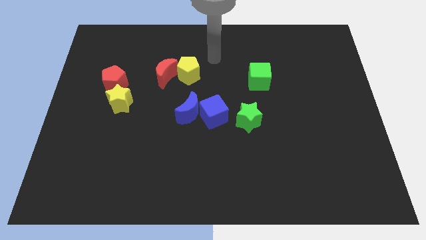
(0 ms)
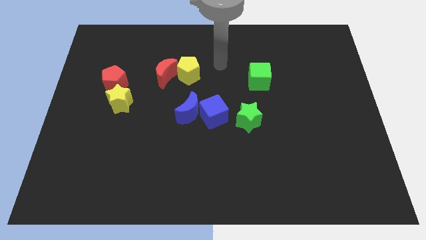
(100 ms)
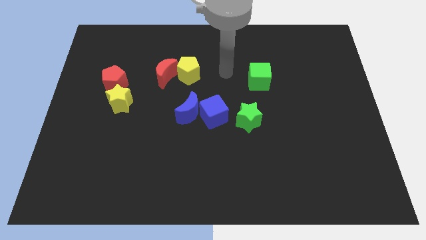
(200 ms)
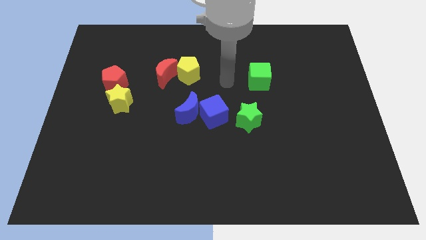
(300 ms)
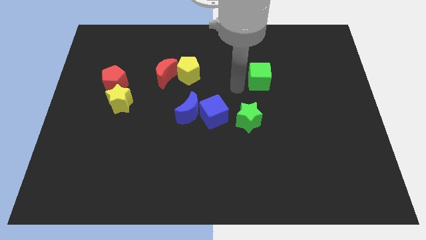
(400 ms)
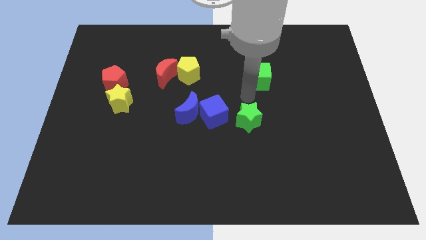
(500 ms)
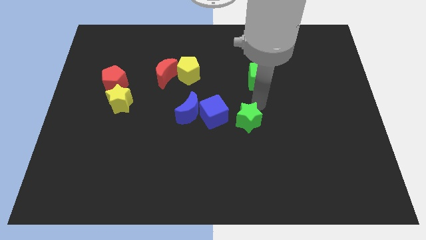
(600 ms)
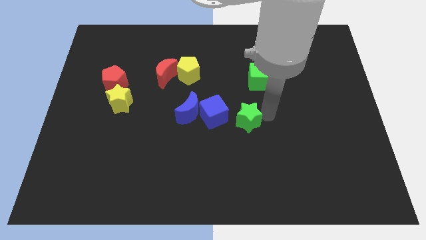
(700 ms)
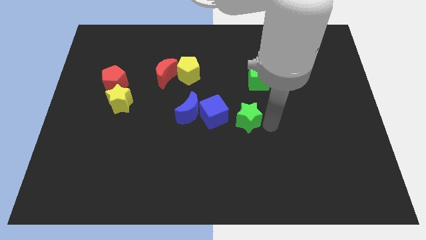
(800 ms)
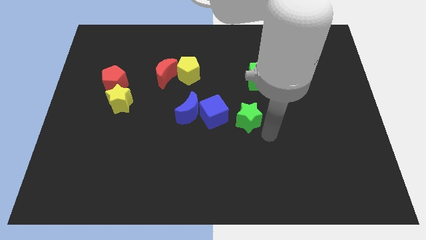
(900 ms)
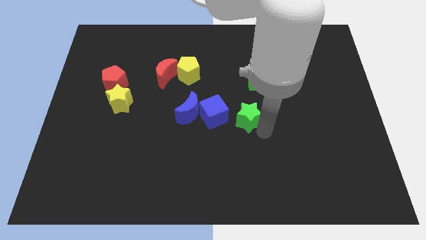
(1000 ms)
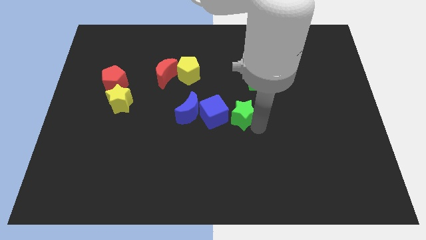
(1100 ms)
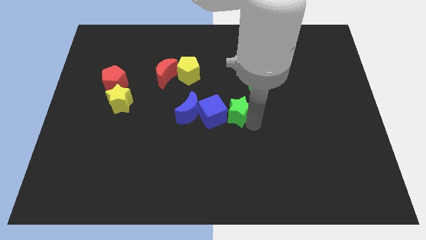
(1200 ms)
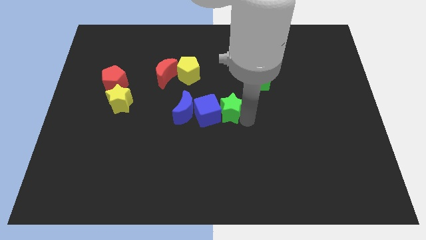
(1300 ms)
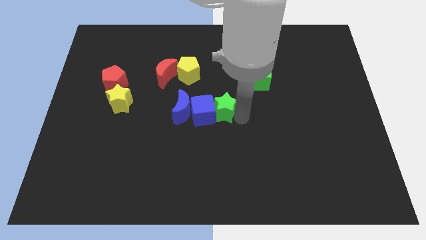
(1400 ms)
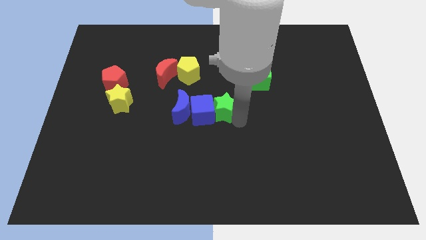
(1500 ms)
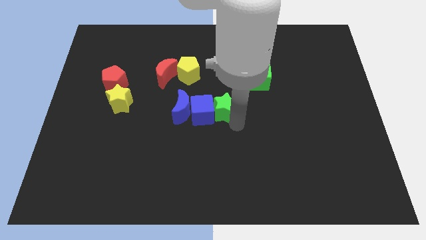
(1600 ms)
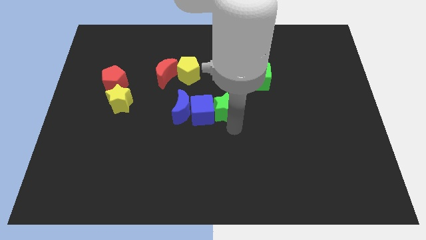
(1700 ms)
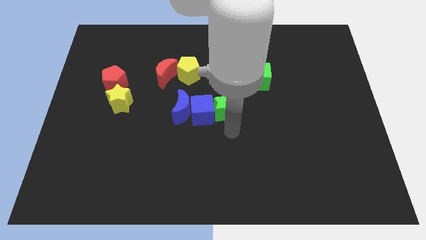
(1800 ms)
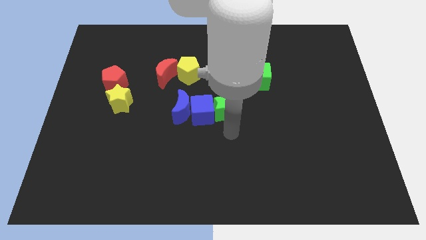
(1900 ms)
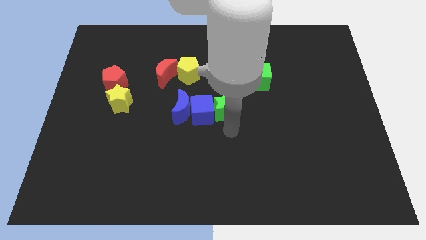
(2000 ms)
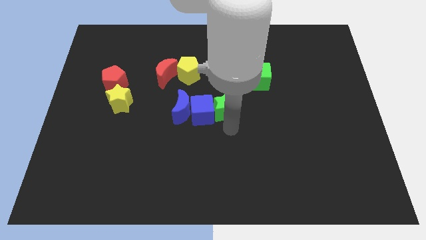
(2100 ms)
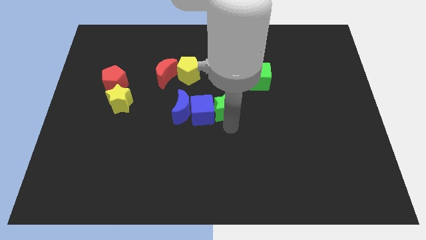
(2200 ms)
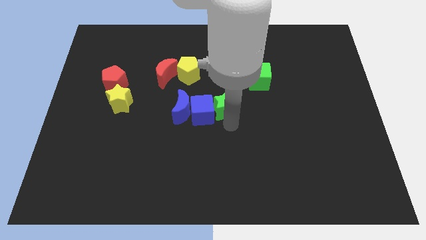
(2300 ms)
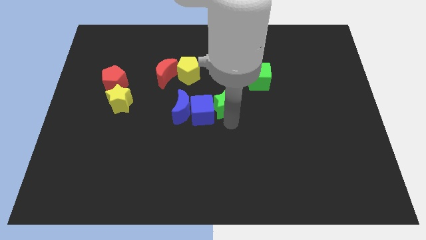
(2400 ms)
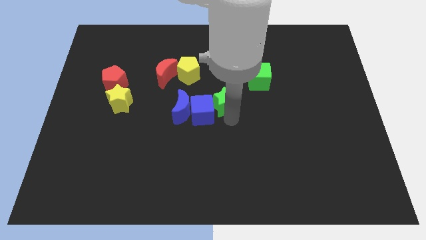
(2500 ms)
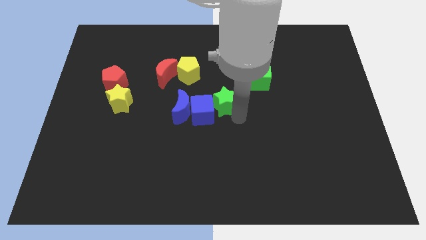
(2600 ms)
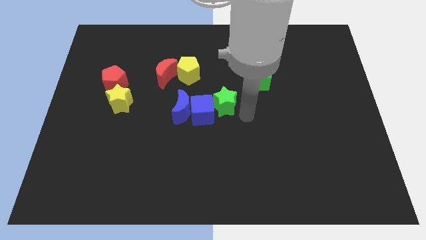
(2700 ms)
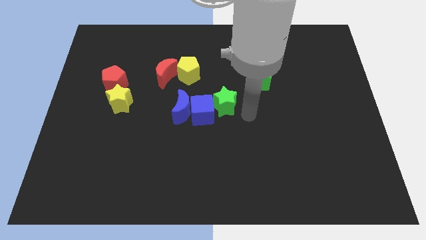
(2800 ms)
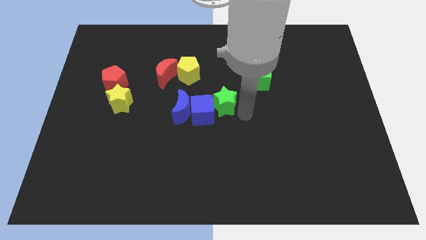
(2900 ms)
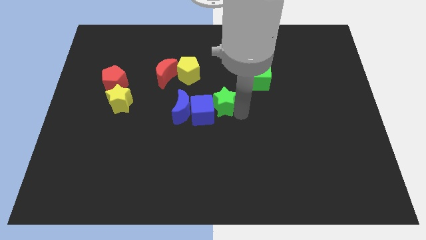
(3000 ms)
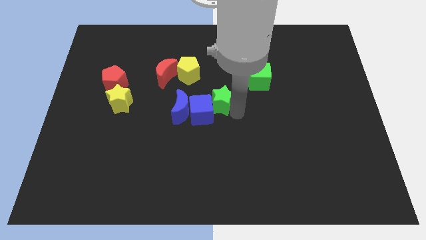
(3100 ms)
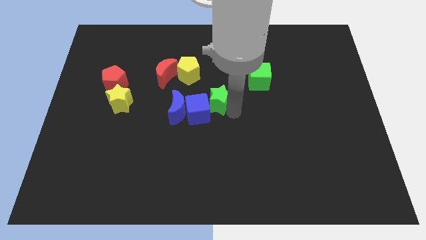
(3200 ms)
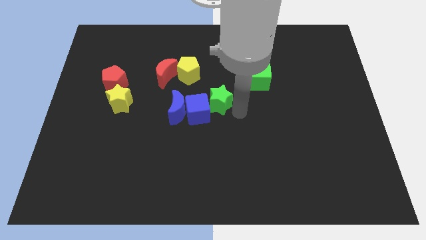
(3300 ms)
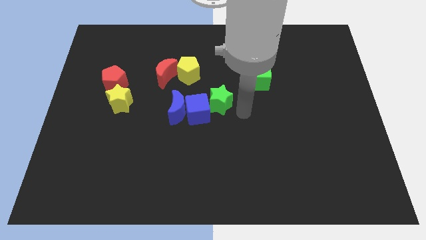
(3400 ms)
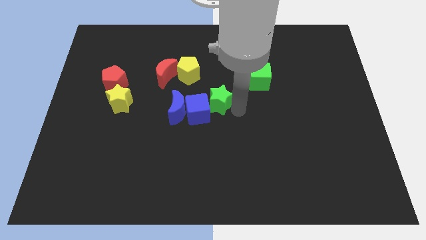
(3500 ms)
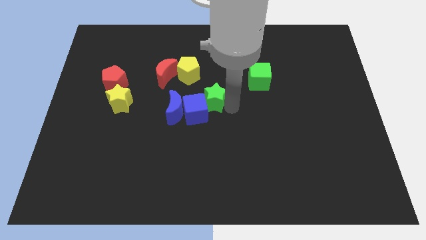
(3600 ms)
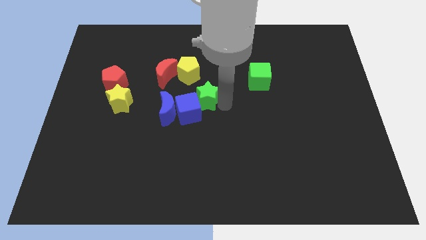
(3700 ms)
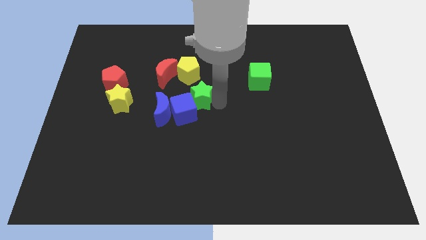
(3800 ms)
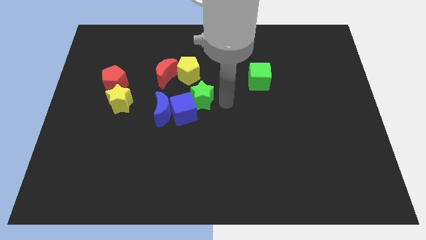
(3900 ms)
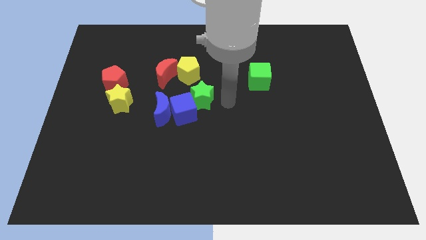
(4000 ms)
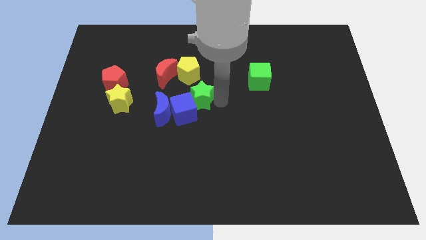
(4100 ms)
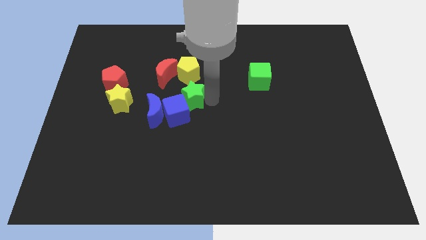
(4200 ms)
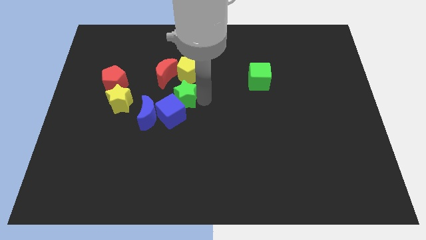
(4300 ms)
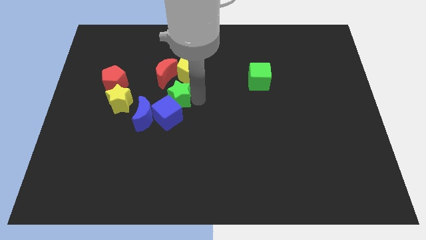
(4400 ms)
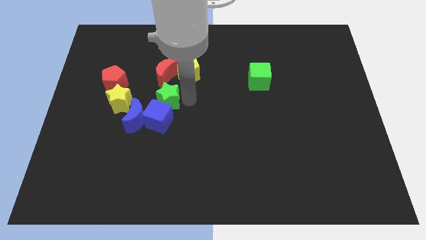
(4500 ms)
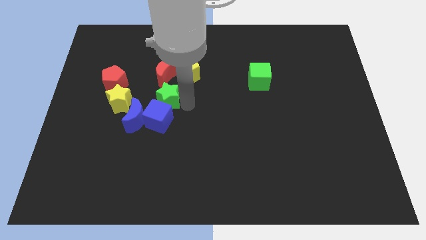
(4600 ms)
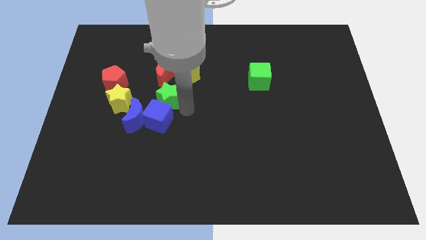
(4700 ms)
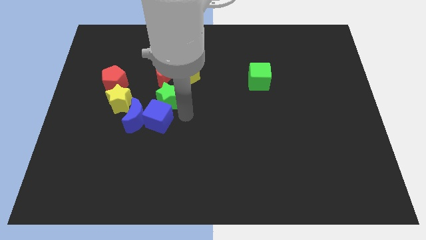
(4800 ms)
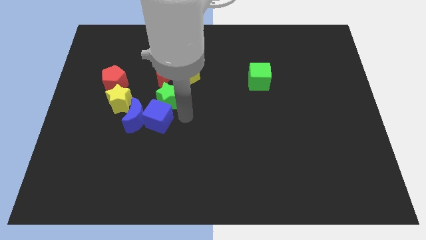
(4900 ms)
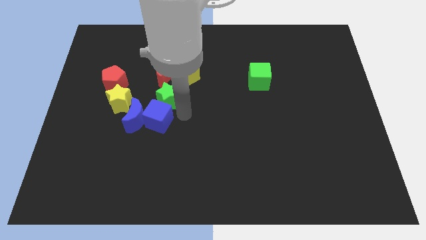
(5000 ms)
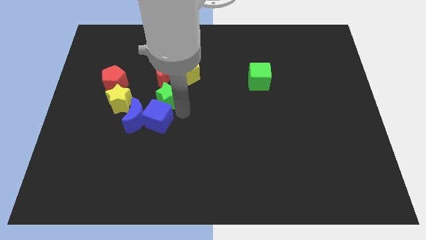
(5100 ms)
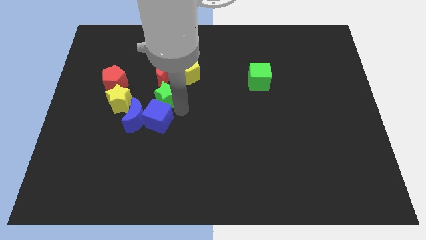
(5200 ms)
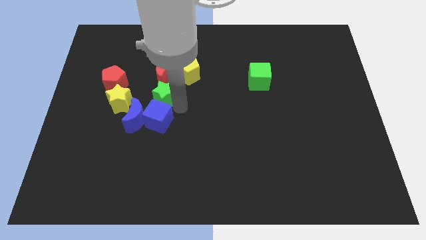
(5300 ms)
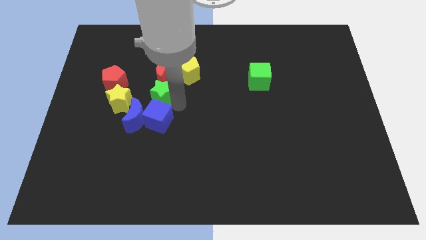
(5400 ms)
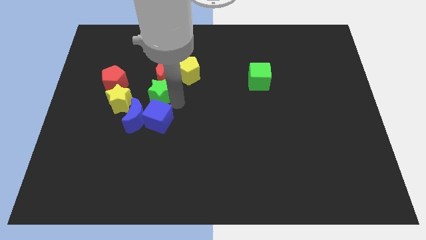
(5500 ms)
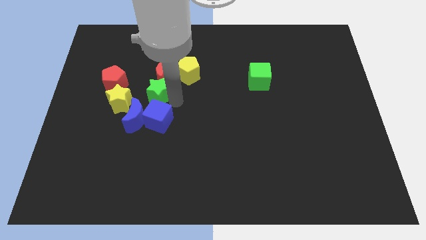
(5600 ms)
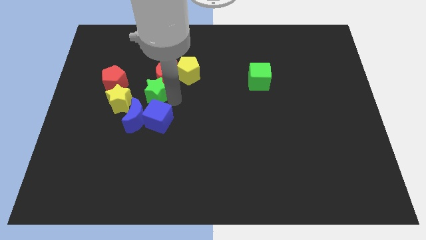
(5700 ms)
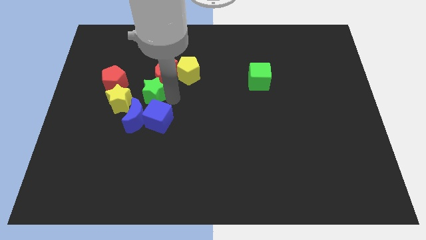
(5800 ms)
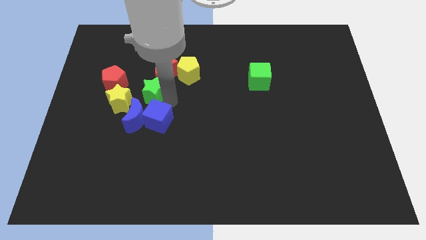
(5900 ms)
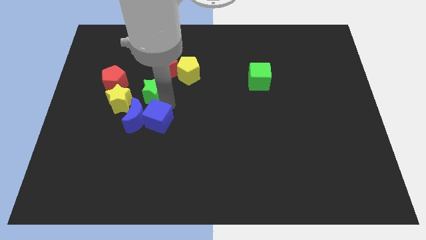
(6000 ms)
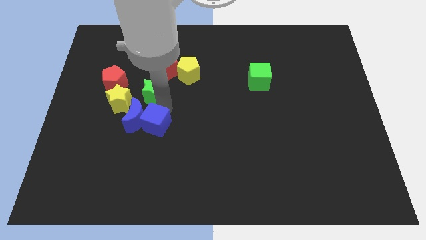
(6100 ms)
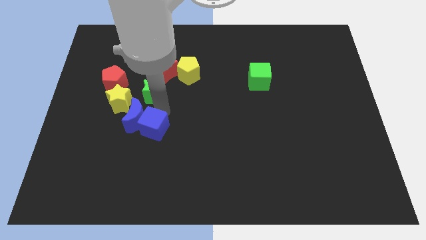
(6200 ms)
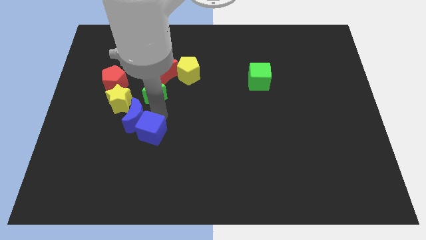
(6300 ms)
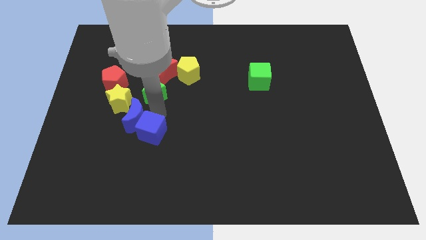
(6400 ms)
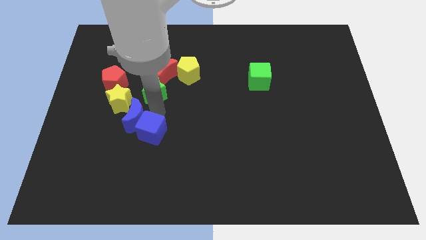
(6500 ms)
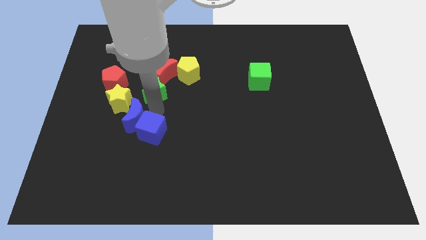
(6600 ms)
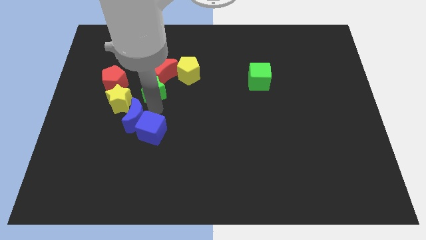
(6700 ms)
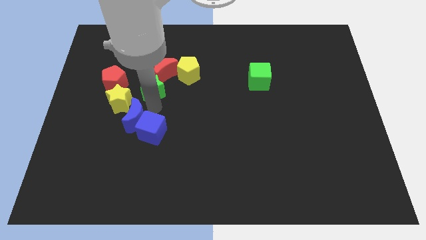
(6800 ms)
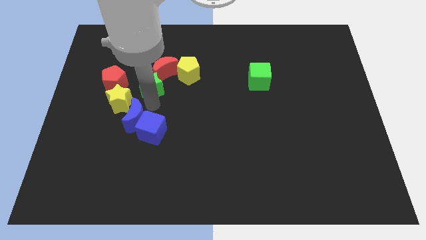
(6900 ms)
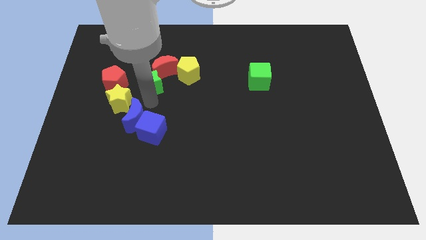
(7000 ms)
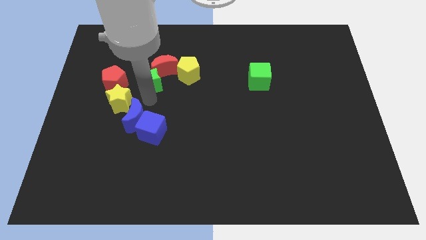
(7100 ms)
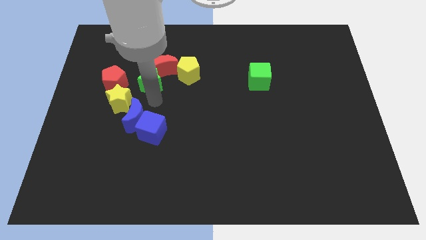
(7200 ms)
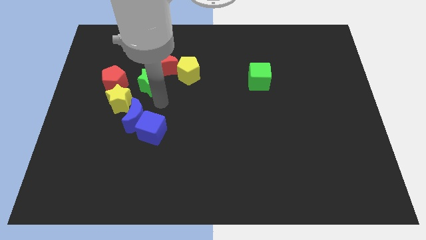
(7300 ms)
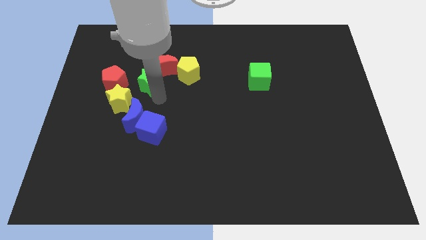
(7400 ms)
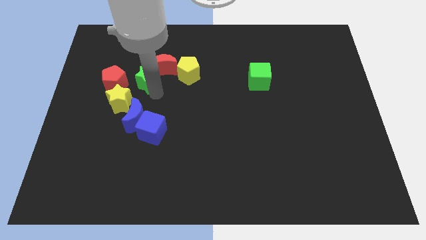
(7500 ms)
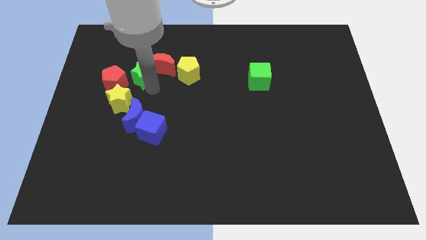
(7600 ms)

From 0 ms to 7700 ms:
put the green star to the top right of the red pentagon

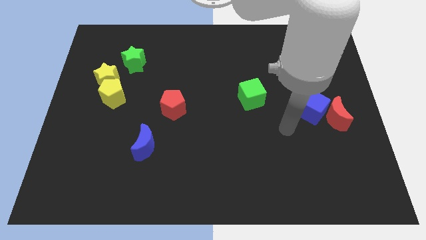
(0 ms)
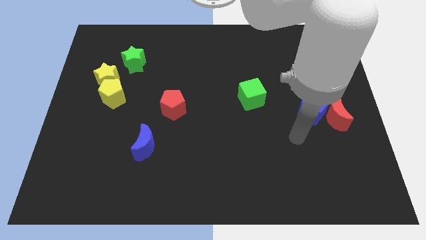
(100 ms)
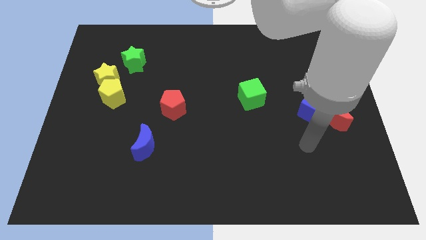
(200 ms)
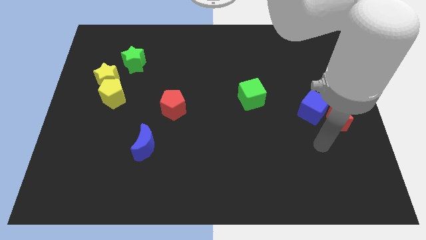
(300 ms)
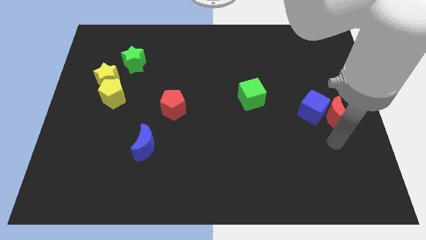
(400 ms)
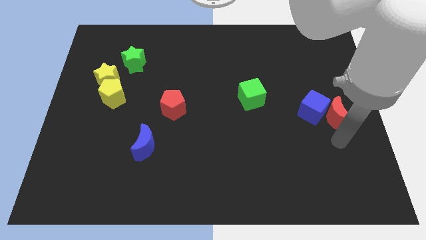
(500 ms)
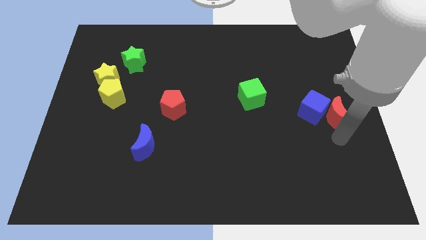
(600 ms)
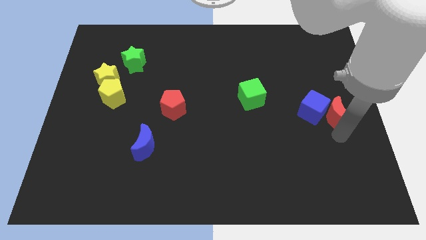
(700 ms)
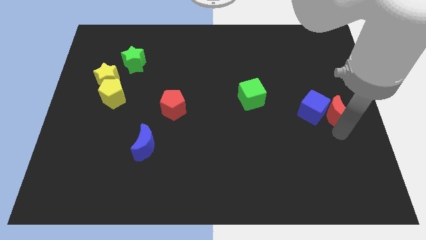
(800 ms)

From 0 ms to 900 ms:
move the red moon to the top right side of the blue cube
